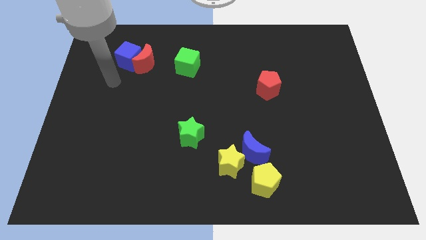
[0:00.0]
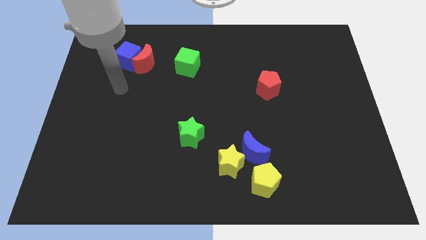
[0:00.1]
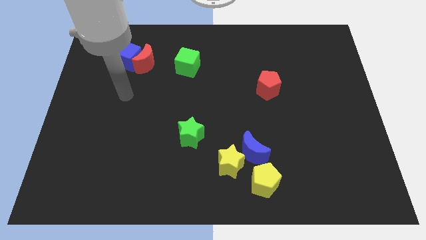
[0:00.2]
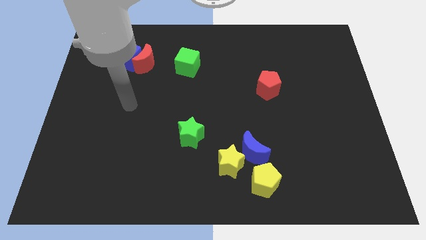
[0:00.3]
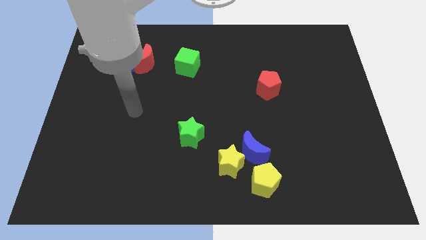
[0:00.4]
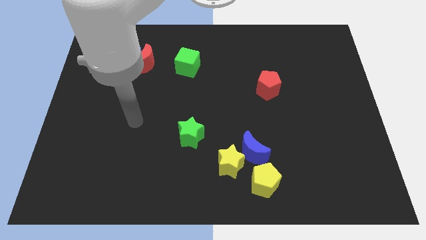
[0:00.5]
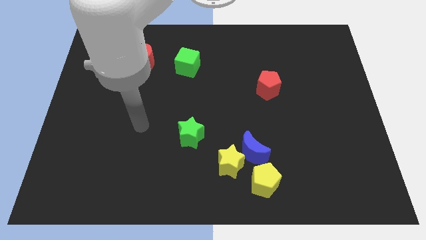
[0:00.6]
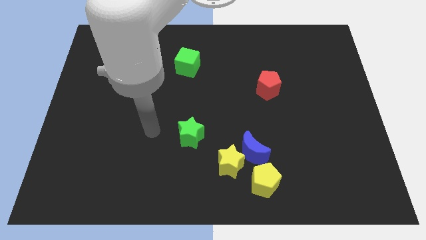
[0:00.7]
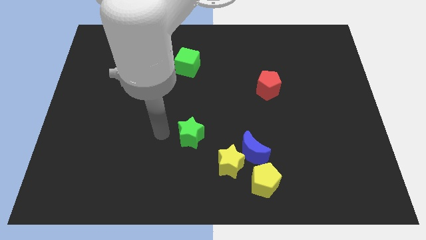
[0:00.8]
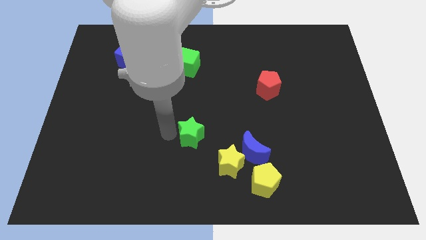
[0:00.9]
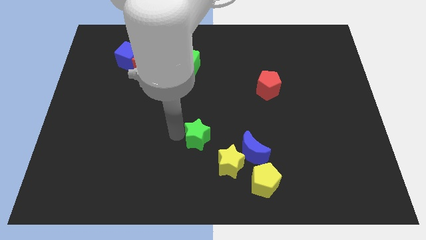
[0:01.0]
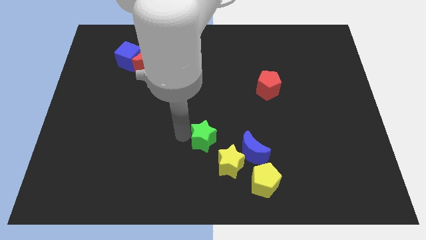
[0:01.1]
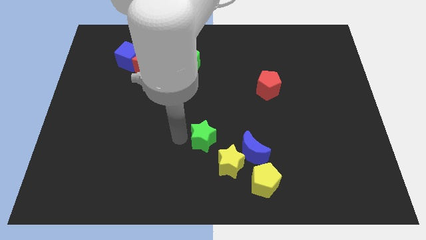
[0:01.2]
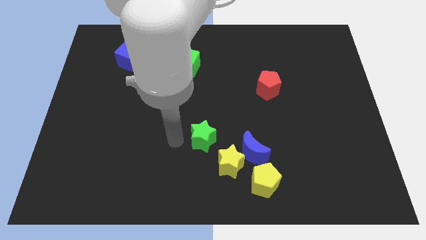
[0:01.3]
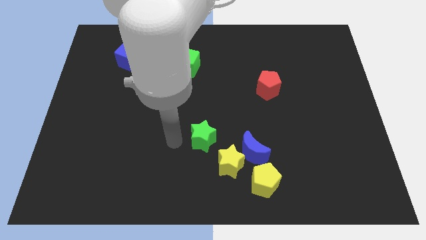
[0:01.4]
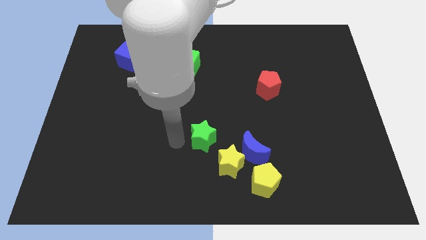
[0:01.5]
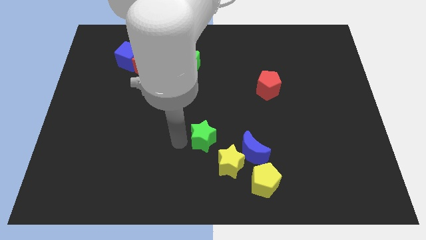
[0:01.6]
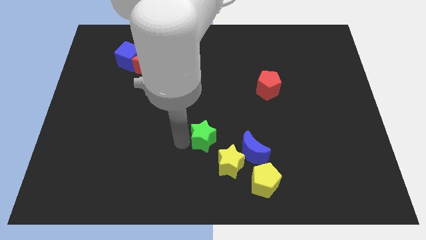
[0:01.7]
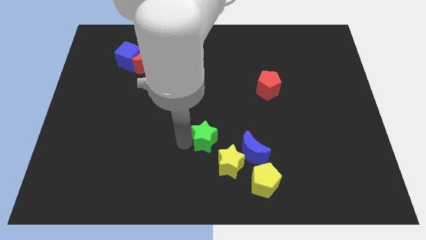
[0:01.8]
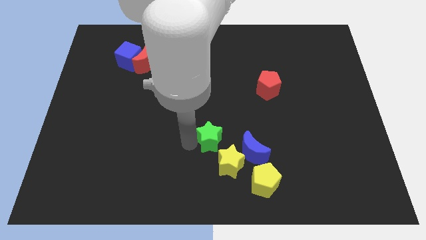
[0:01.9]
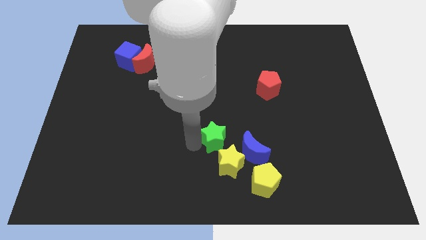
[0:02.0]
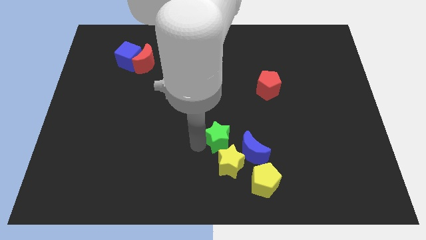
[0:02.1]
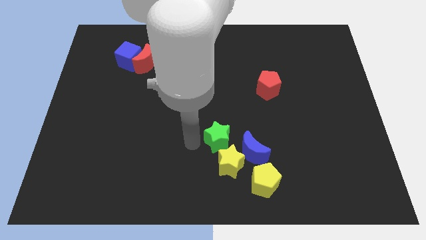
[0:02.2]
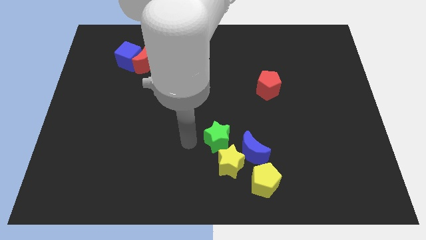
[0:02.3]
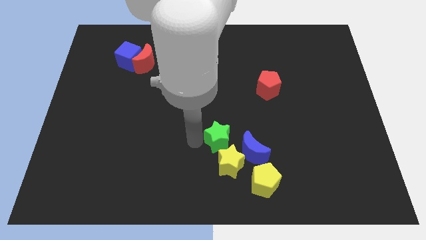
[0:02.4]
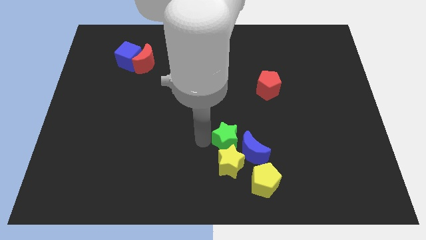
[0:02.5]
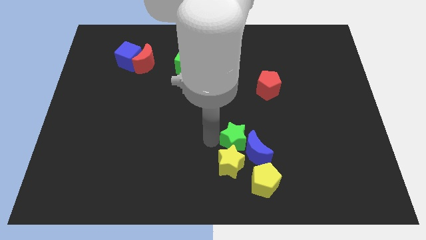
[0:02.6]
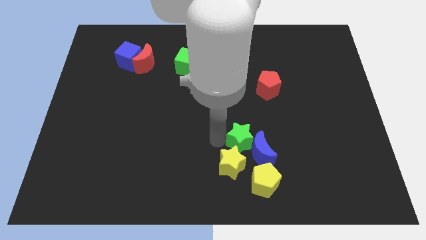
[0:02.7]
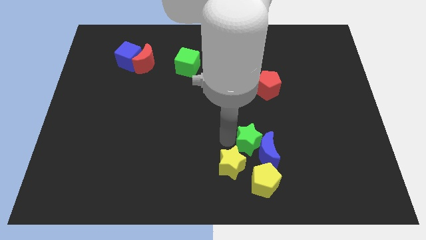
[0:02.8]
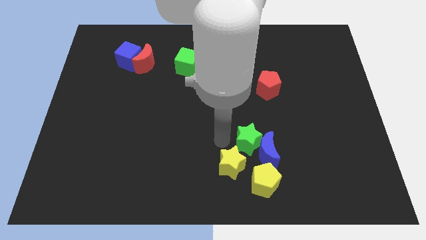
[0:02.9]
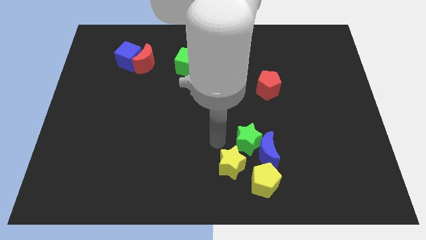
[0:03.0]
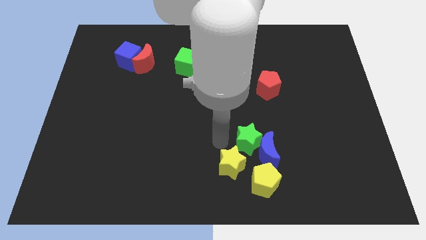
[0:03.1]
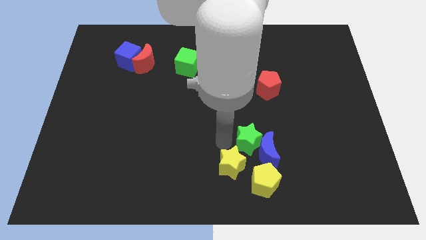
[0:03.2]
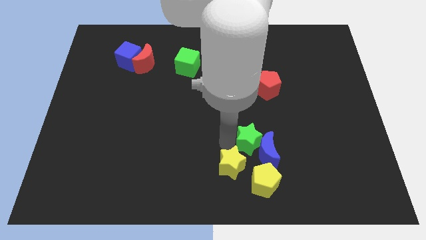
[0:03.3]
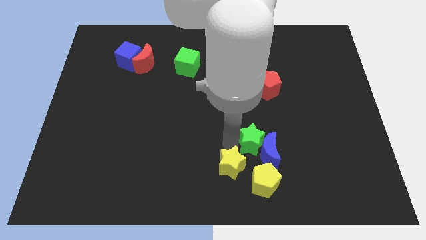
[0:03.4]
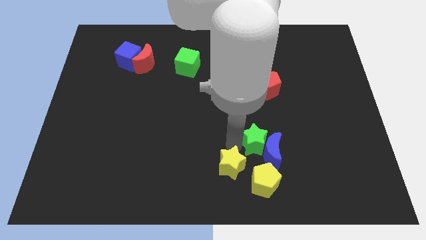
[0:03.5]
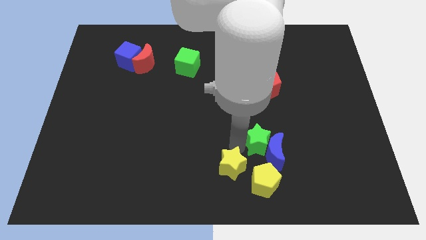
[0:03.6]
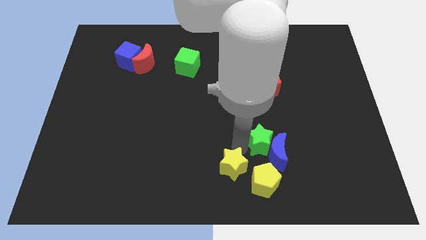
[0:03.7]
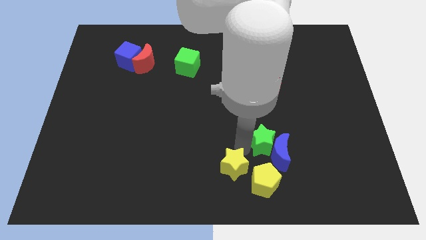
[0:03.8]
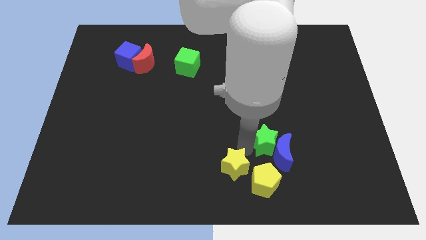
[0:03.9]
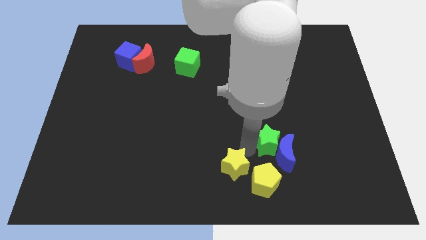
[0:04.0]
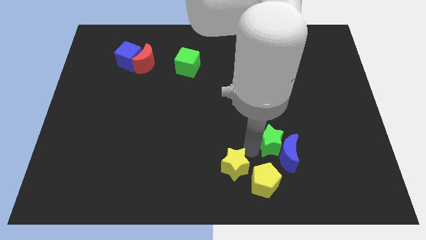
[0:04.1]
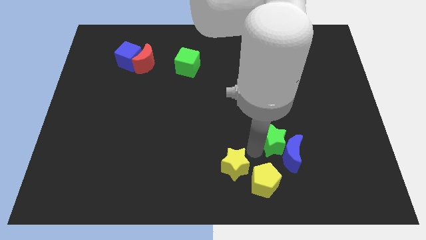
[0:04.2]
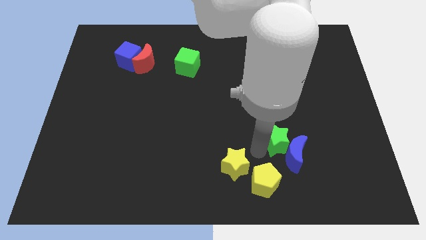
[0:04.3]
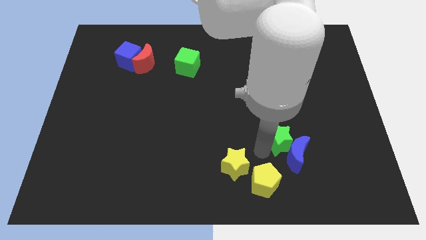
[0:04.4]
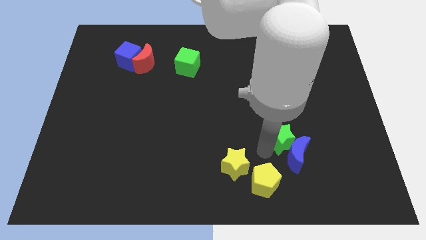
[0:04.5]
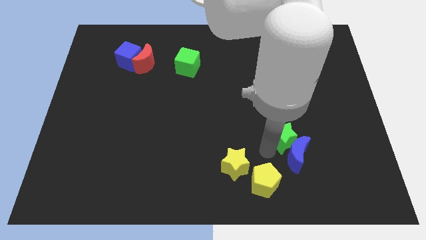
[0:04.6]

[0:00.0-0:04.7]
push the green star to the right

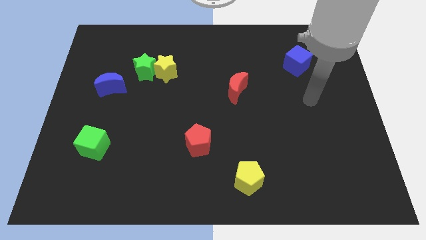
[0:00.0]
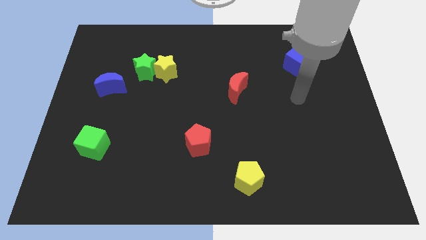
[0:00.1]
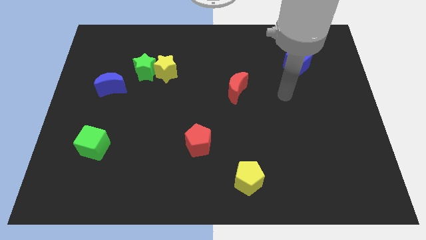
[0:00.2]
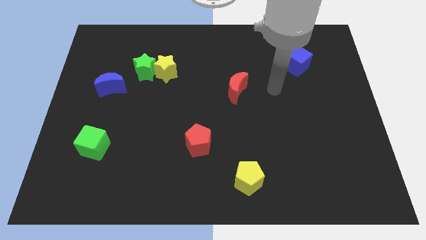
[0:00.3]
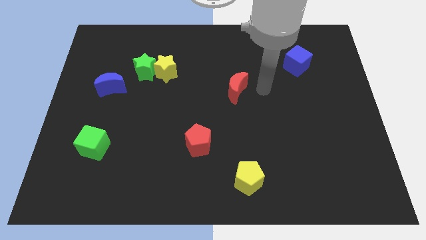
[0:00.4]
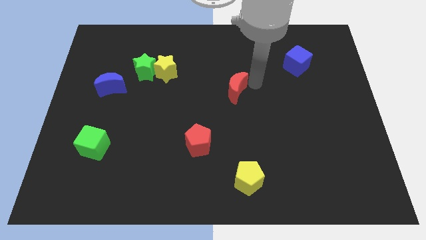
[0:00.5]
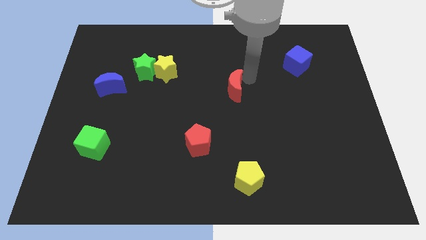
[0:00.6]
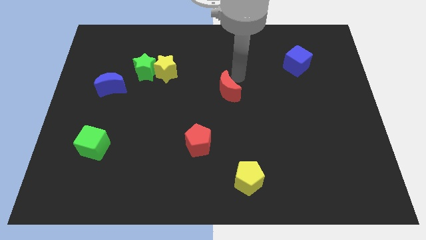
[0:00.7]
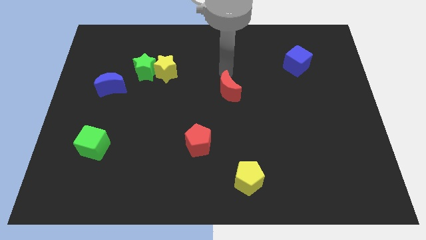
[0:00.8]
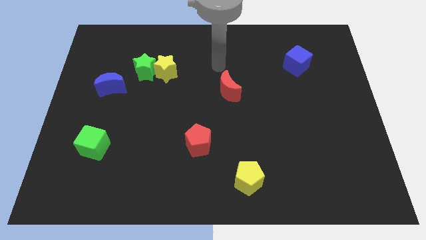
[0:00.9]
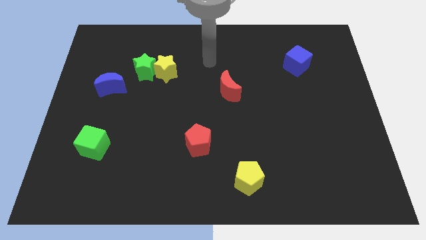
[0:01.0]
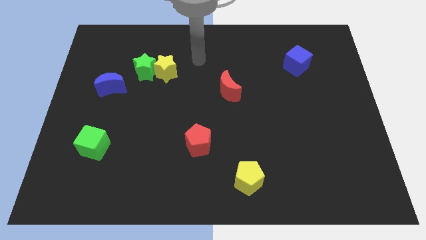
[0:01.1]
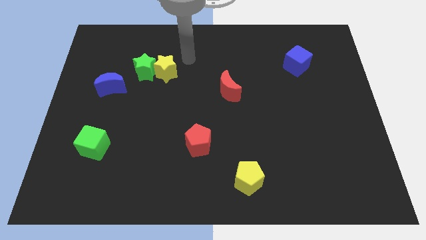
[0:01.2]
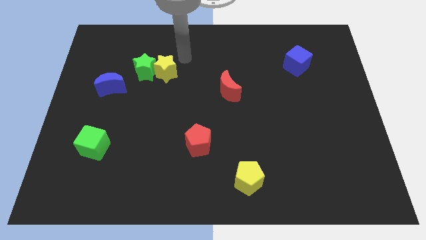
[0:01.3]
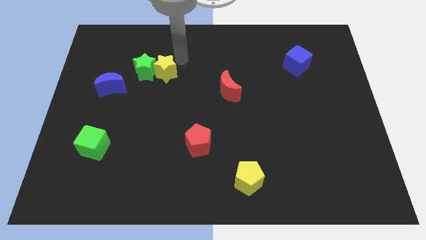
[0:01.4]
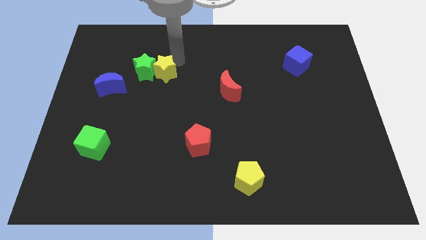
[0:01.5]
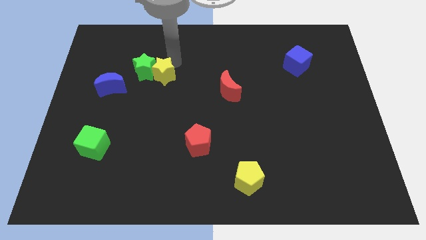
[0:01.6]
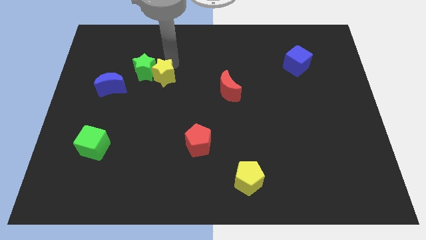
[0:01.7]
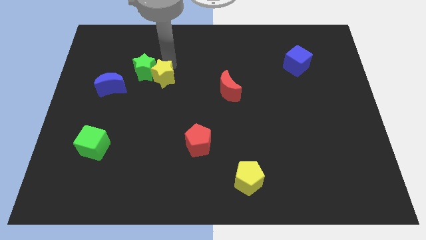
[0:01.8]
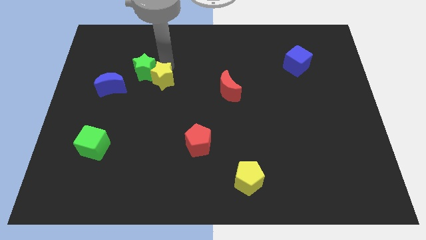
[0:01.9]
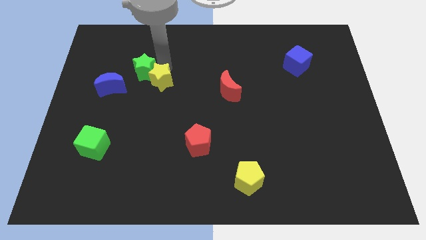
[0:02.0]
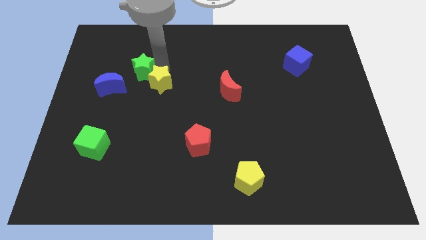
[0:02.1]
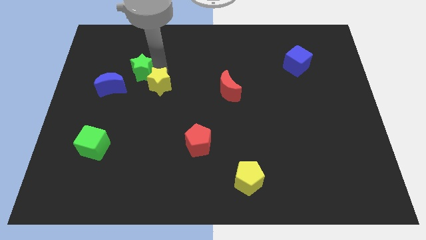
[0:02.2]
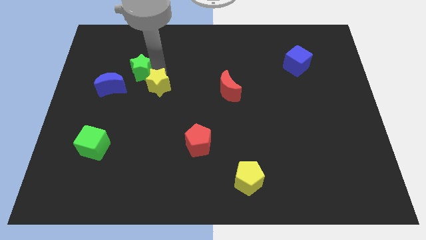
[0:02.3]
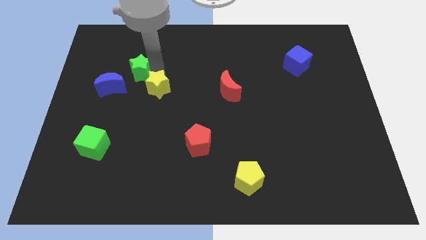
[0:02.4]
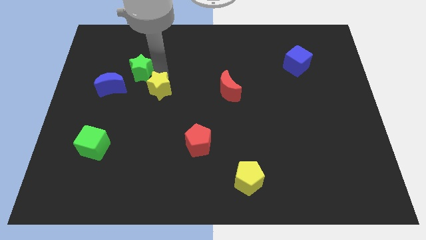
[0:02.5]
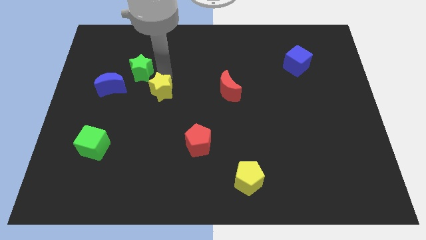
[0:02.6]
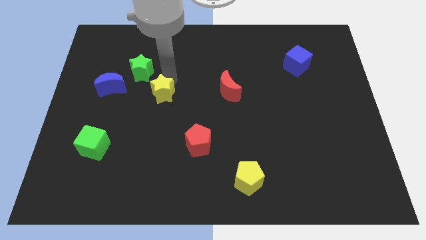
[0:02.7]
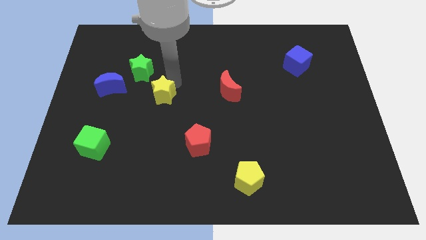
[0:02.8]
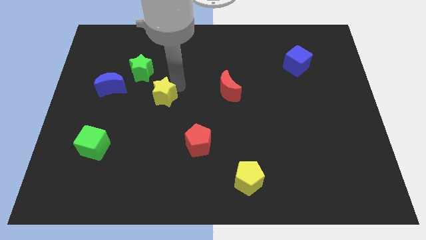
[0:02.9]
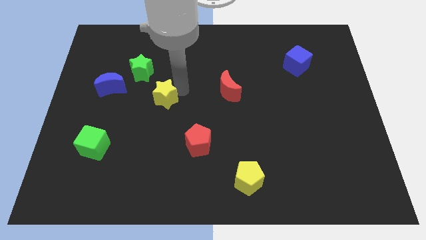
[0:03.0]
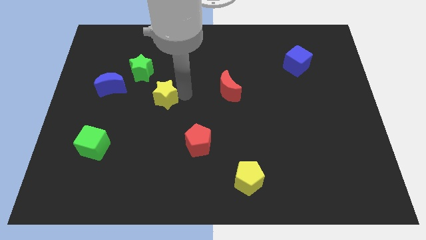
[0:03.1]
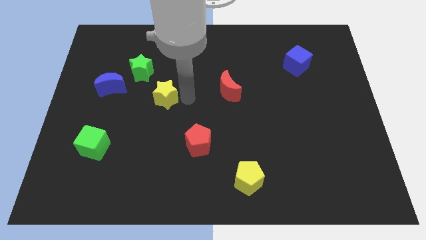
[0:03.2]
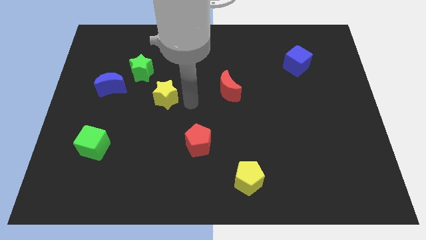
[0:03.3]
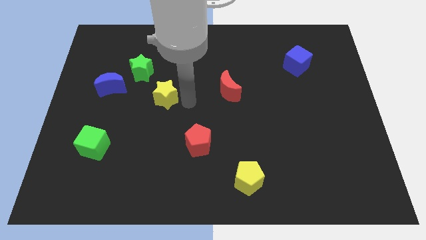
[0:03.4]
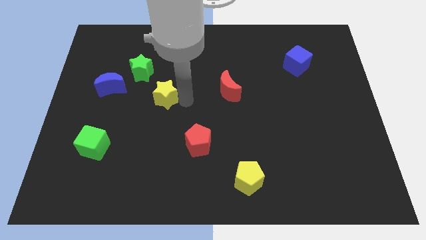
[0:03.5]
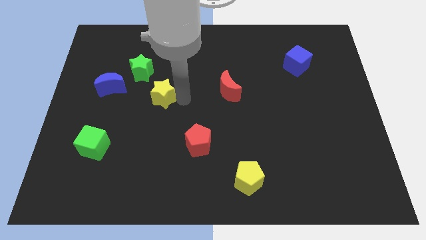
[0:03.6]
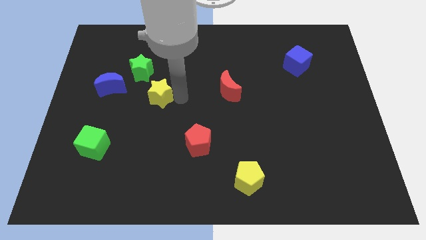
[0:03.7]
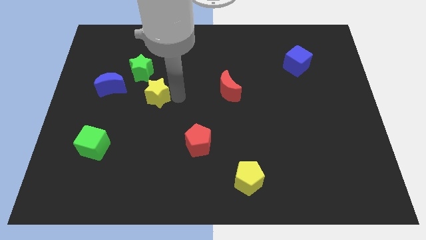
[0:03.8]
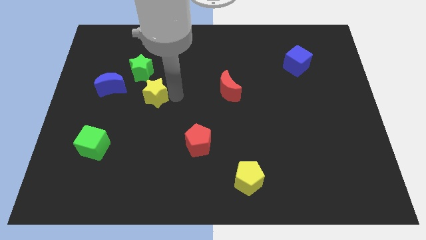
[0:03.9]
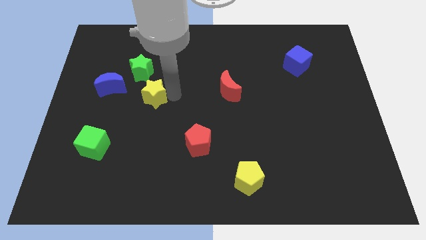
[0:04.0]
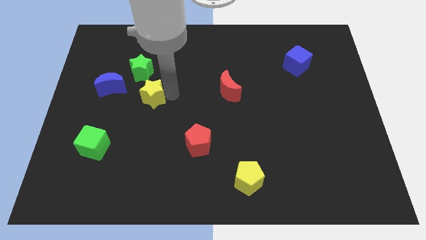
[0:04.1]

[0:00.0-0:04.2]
slide the yellow star slightly diagonally down and to the left
